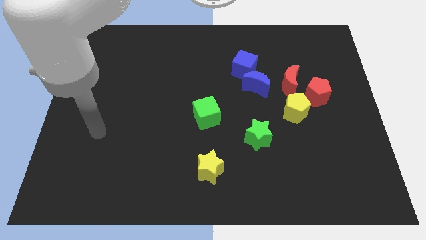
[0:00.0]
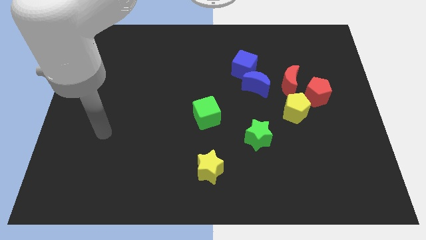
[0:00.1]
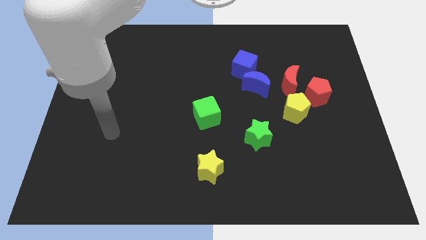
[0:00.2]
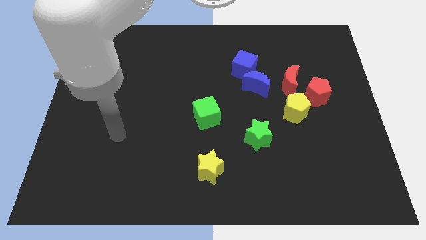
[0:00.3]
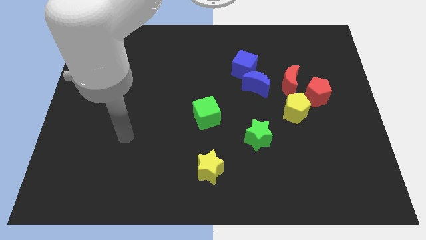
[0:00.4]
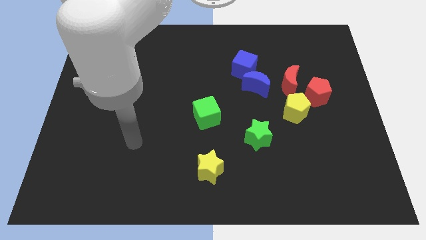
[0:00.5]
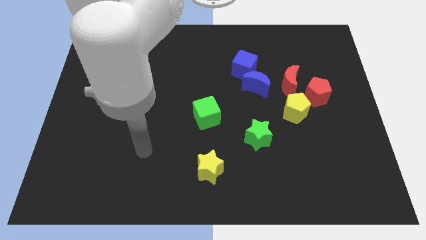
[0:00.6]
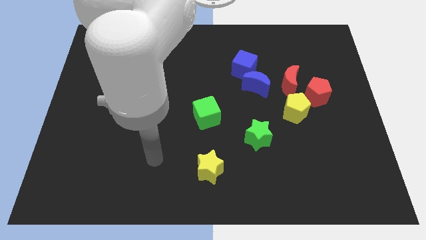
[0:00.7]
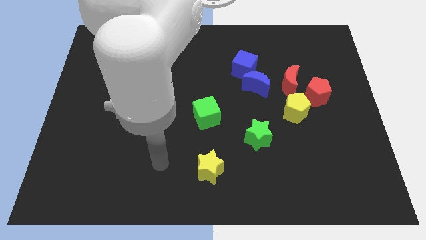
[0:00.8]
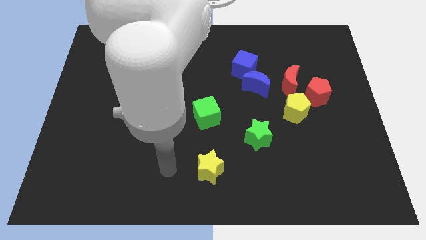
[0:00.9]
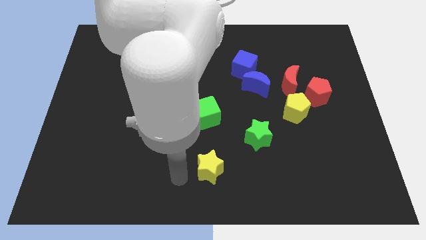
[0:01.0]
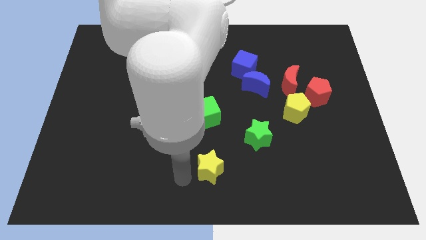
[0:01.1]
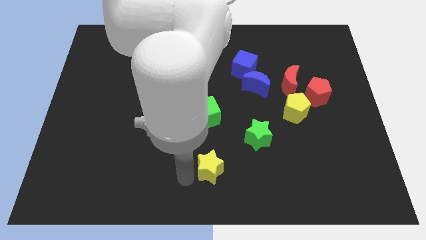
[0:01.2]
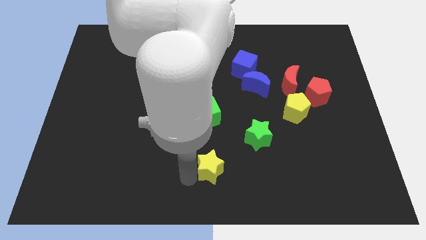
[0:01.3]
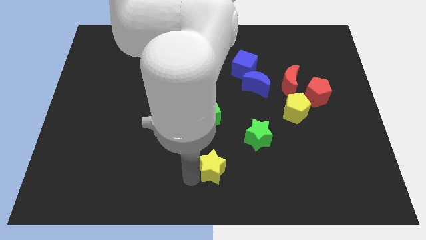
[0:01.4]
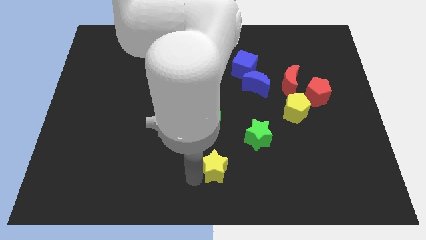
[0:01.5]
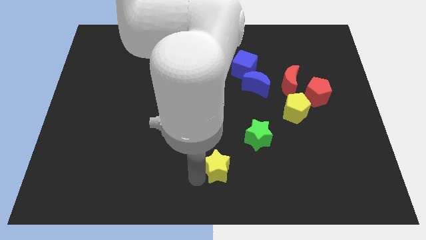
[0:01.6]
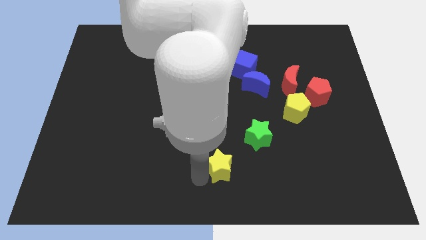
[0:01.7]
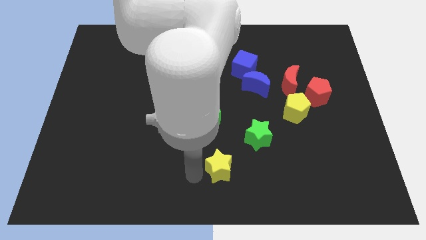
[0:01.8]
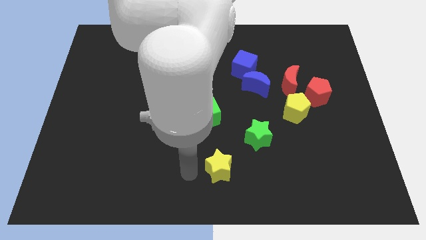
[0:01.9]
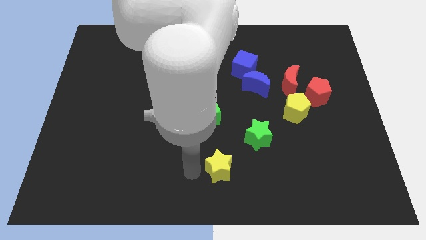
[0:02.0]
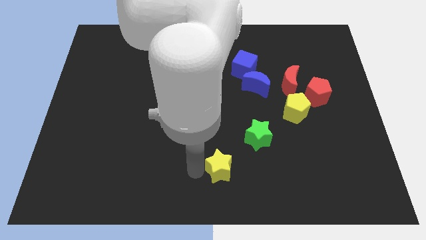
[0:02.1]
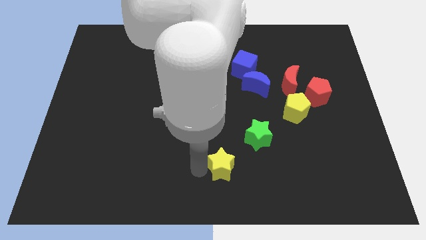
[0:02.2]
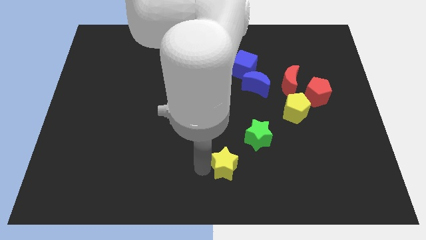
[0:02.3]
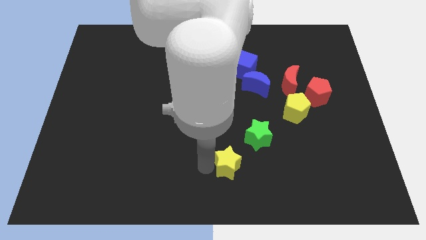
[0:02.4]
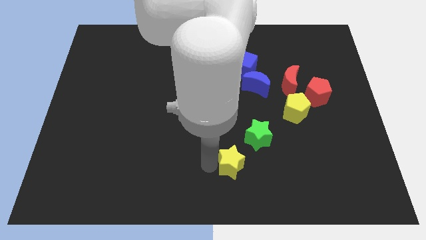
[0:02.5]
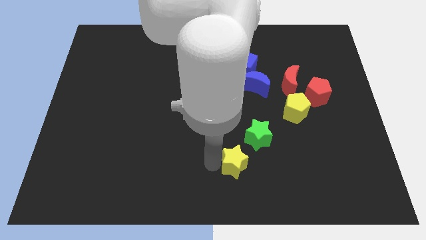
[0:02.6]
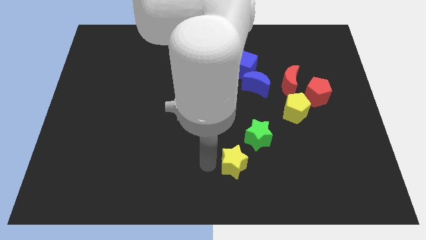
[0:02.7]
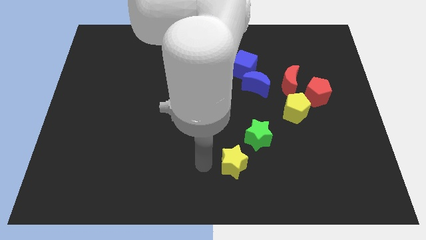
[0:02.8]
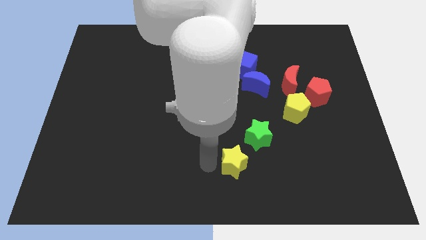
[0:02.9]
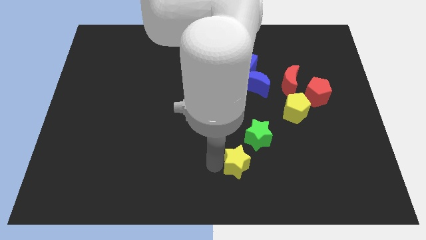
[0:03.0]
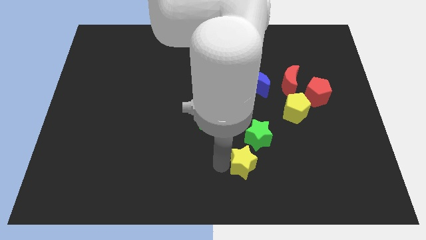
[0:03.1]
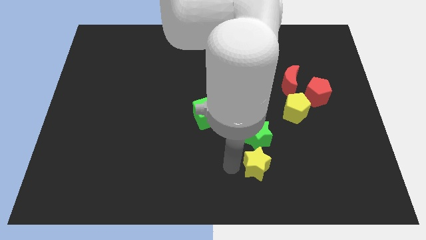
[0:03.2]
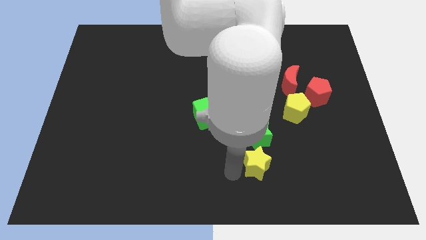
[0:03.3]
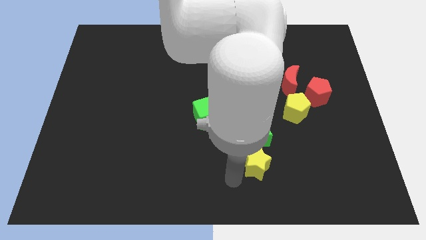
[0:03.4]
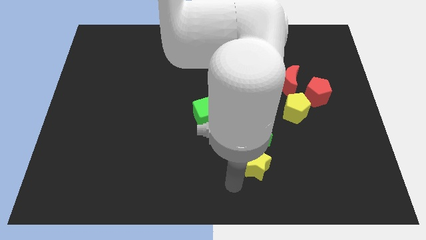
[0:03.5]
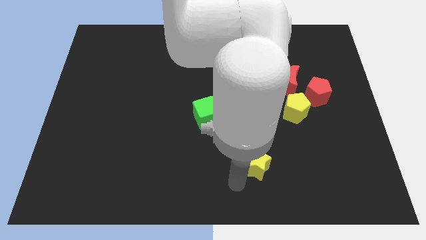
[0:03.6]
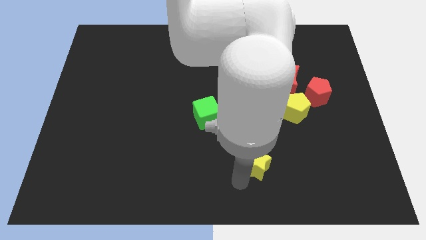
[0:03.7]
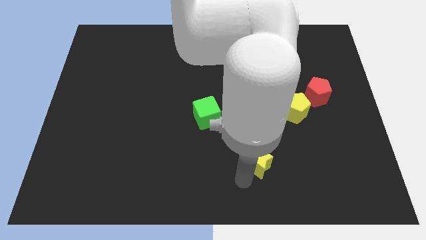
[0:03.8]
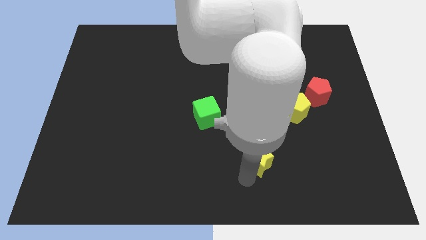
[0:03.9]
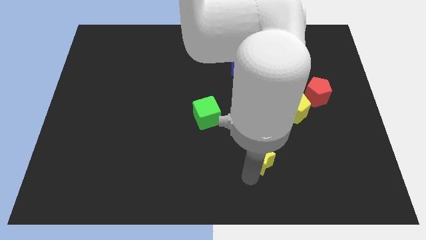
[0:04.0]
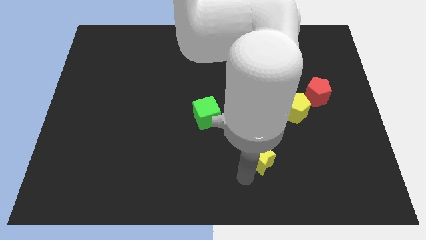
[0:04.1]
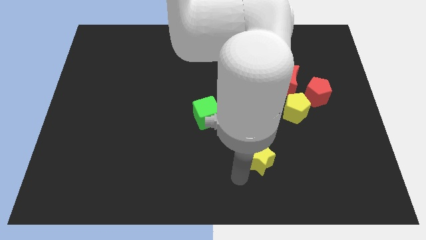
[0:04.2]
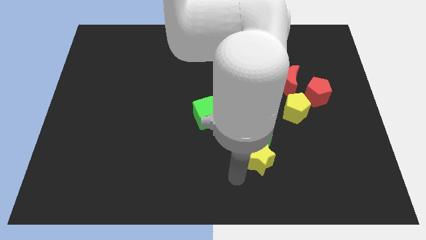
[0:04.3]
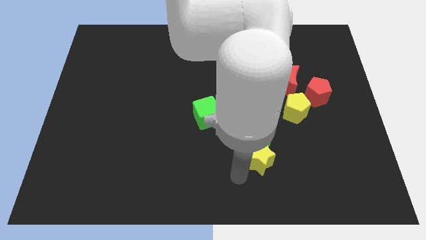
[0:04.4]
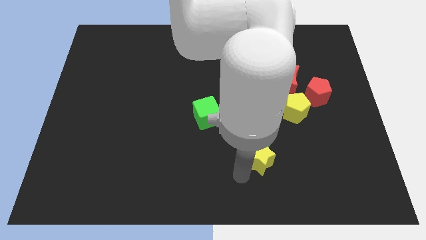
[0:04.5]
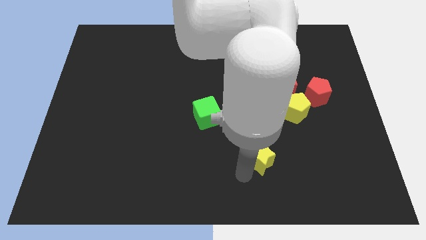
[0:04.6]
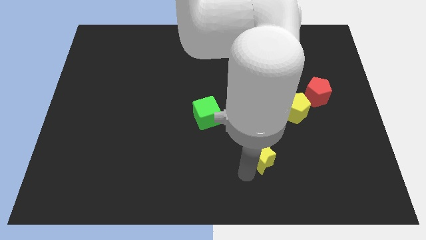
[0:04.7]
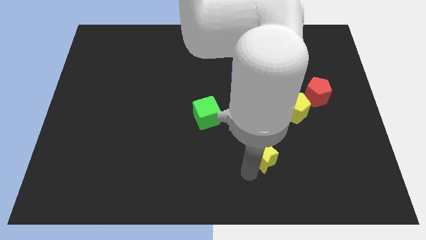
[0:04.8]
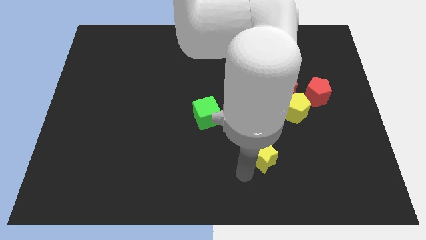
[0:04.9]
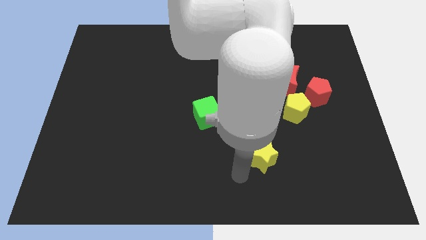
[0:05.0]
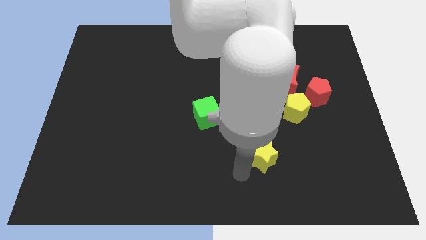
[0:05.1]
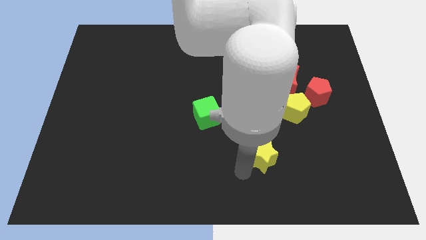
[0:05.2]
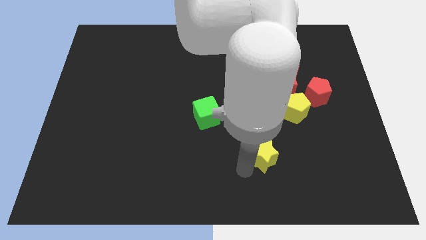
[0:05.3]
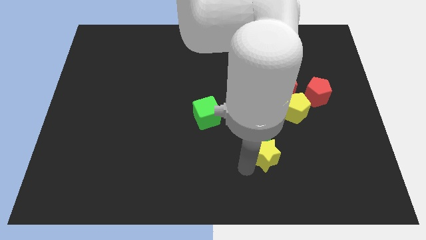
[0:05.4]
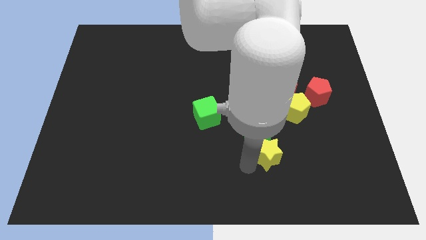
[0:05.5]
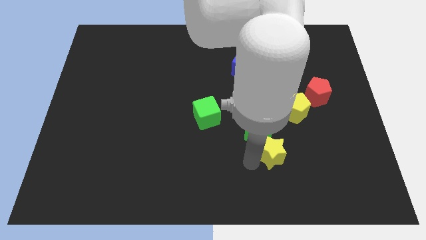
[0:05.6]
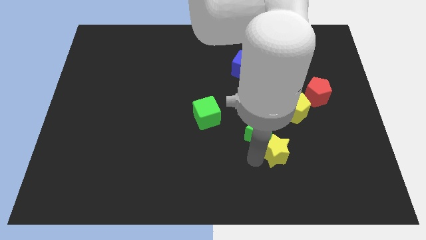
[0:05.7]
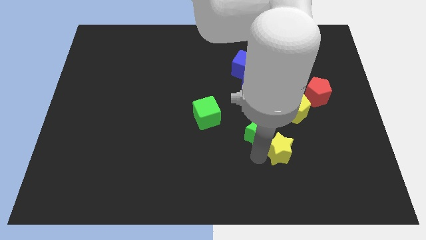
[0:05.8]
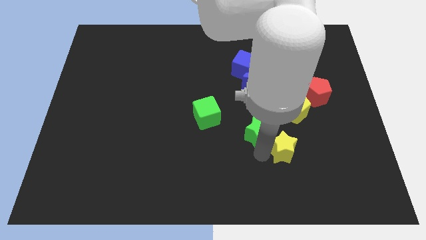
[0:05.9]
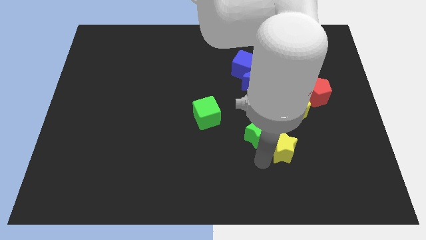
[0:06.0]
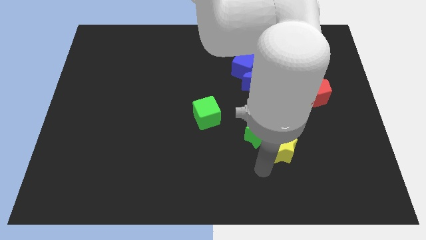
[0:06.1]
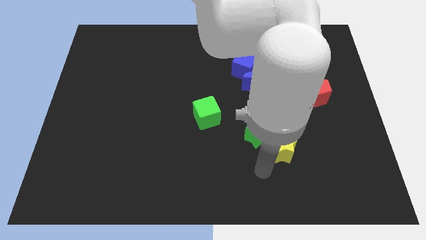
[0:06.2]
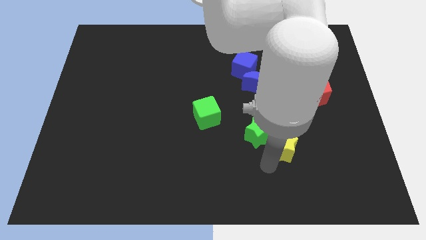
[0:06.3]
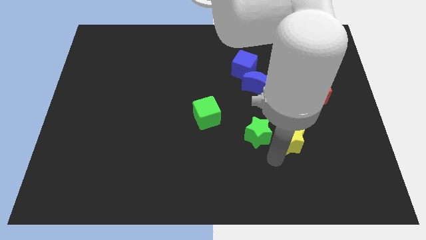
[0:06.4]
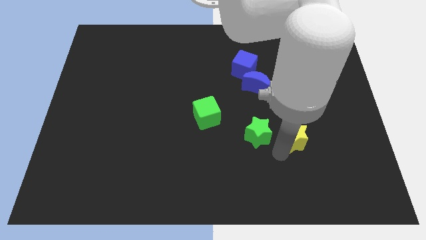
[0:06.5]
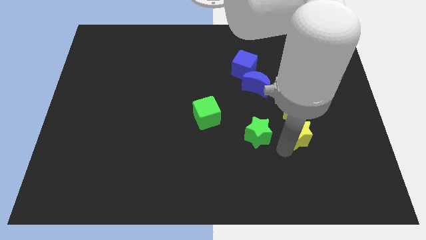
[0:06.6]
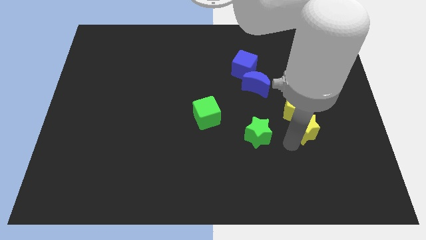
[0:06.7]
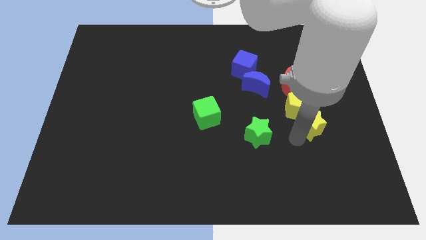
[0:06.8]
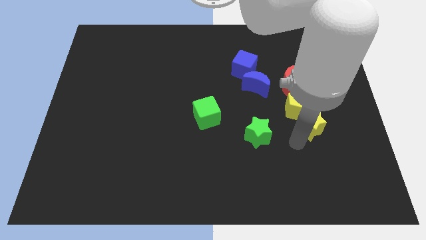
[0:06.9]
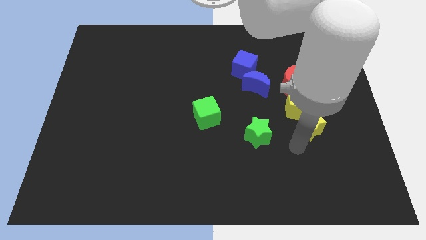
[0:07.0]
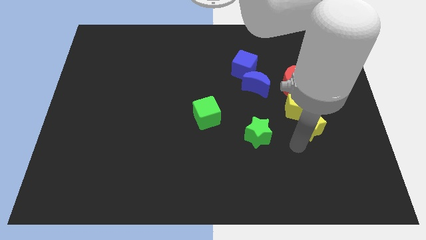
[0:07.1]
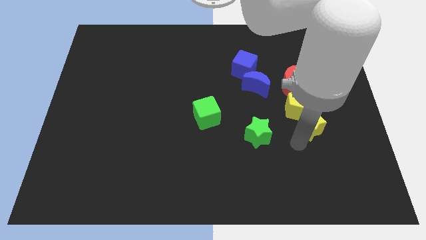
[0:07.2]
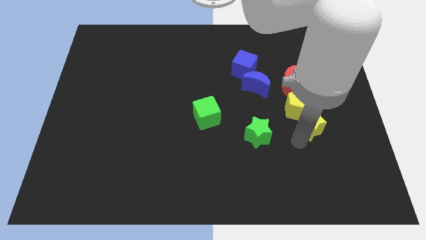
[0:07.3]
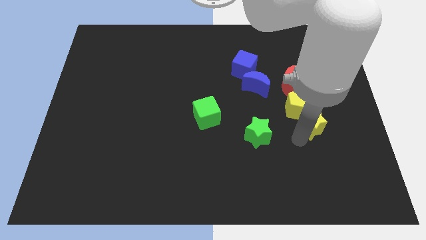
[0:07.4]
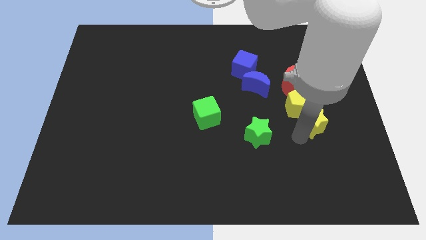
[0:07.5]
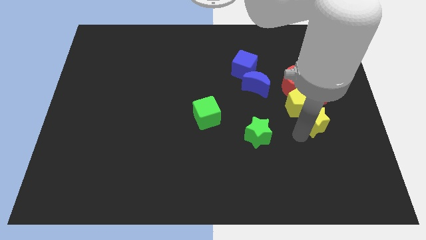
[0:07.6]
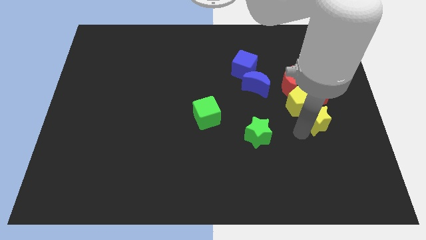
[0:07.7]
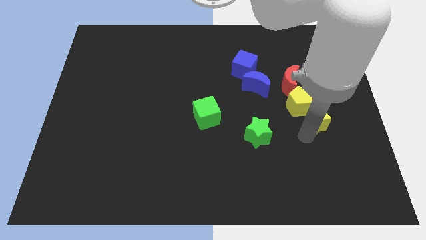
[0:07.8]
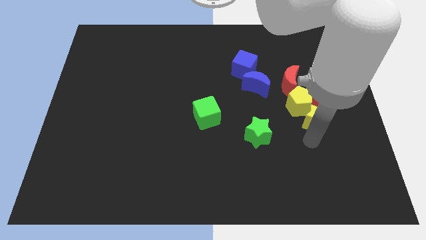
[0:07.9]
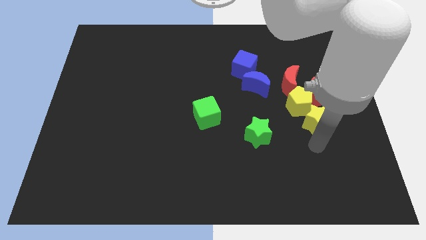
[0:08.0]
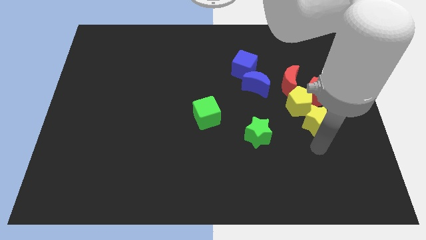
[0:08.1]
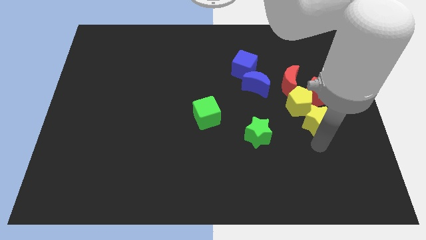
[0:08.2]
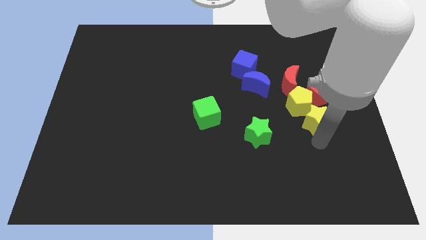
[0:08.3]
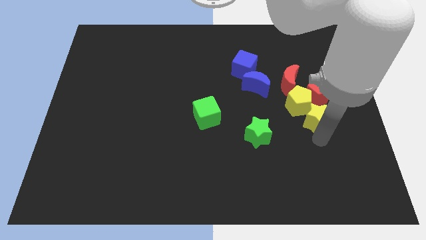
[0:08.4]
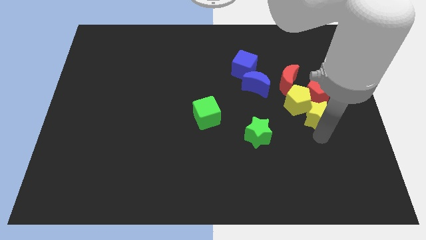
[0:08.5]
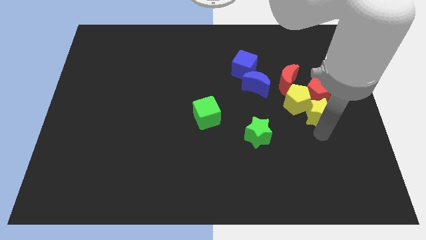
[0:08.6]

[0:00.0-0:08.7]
slide the yellow star to the bottom right side of the red moon
